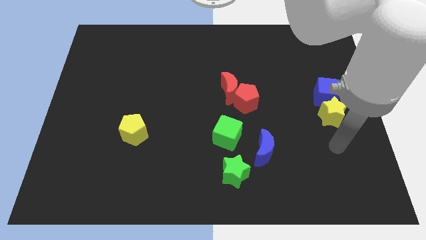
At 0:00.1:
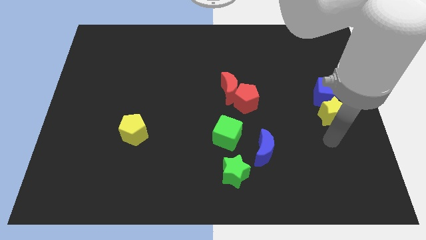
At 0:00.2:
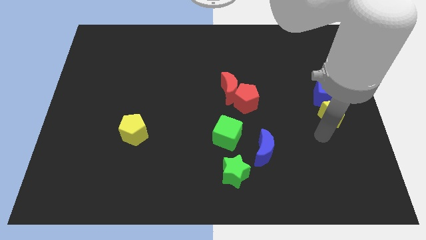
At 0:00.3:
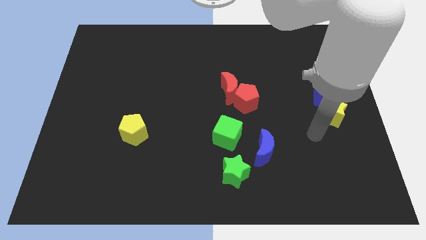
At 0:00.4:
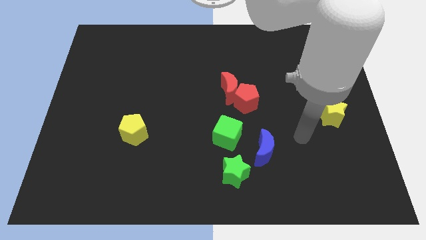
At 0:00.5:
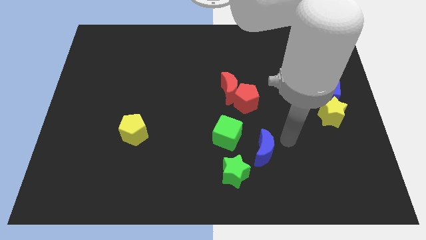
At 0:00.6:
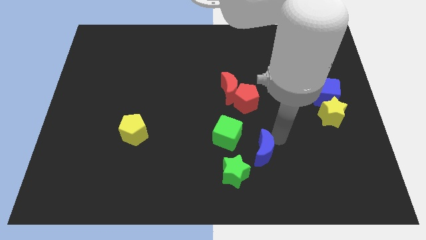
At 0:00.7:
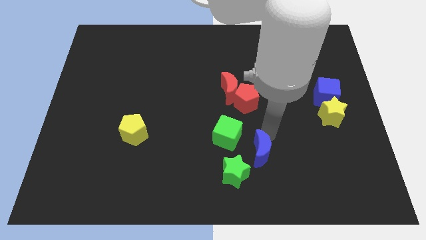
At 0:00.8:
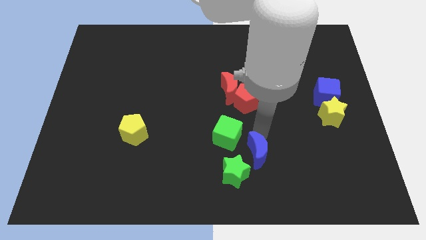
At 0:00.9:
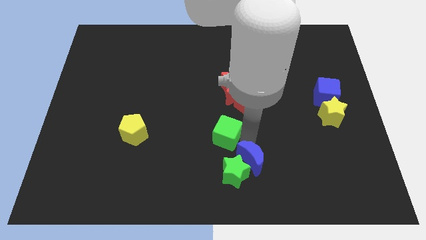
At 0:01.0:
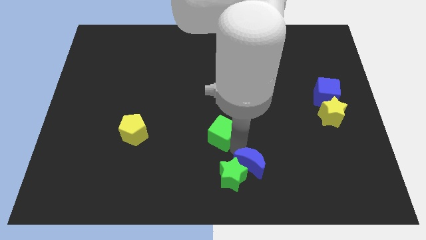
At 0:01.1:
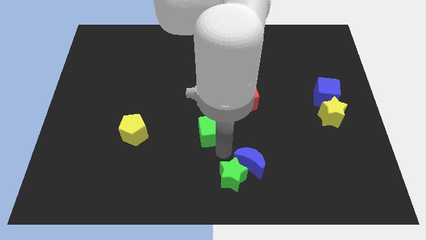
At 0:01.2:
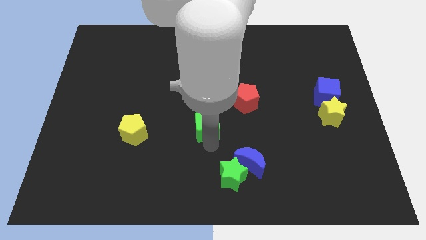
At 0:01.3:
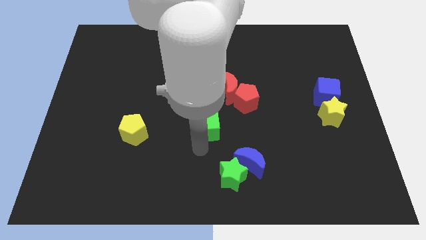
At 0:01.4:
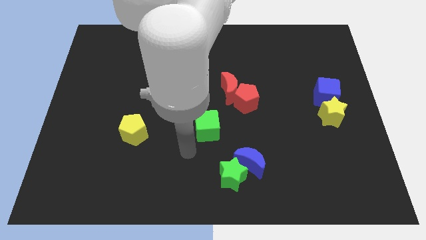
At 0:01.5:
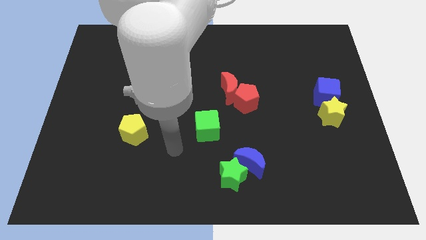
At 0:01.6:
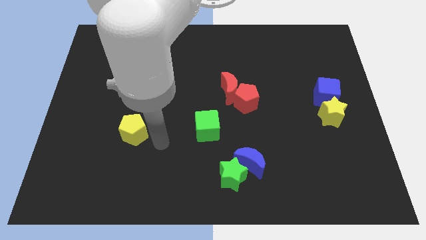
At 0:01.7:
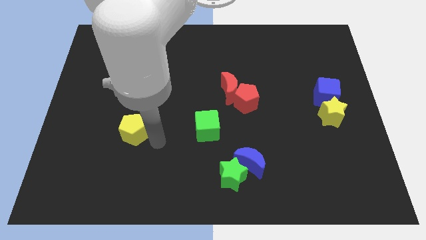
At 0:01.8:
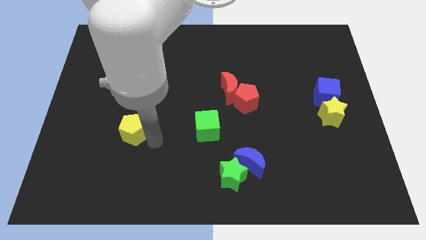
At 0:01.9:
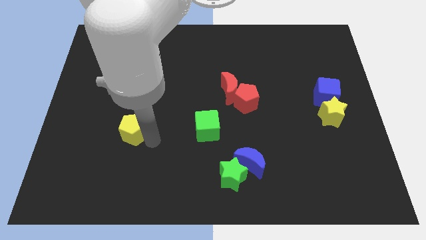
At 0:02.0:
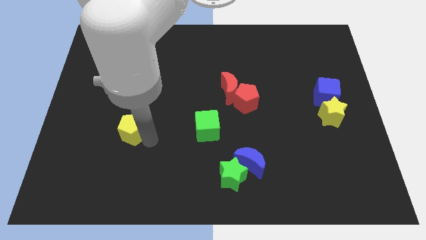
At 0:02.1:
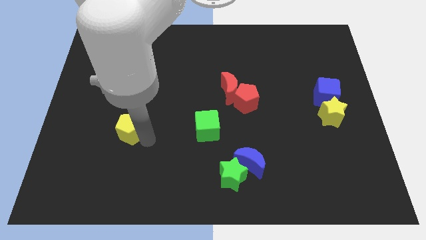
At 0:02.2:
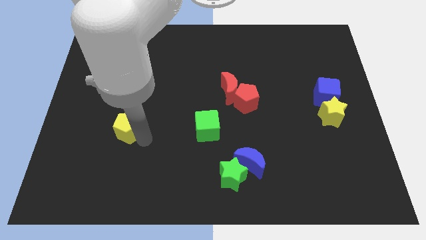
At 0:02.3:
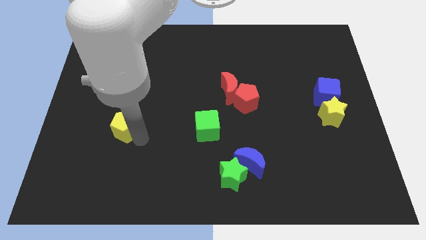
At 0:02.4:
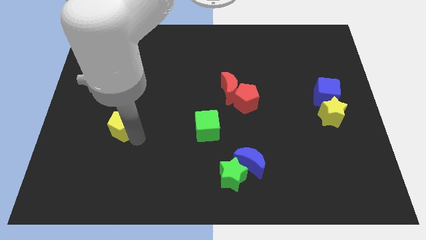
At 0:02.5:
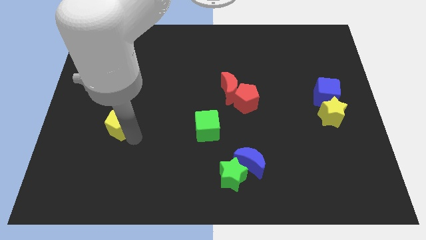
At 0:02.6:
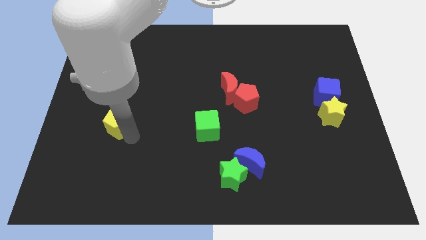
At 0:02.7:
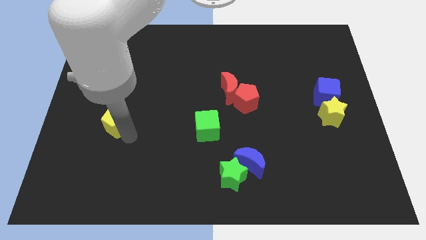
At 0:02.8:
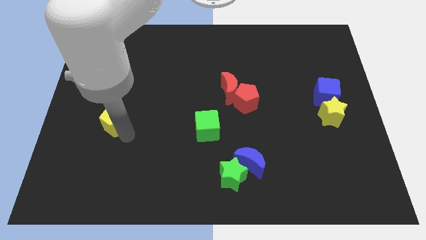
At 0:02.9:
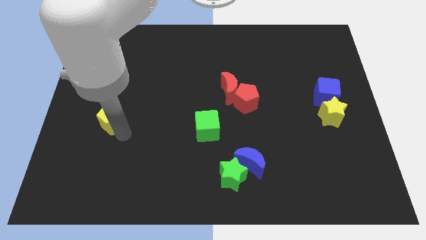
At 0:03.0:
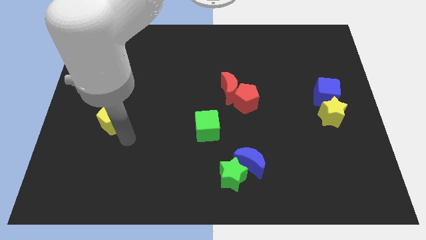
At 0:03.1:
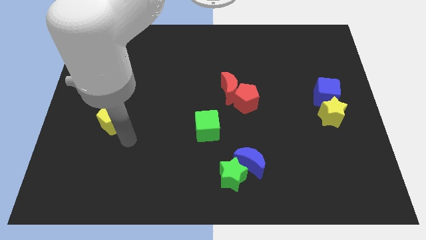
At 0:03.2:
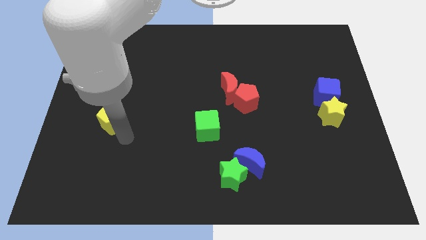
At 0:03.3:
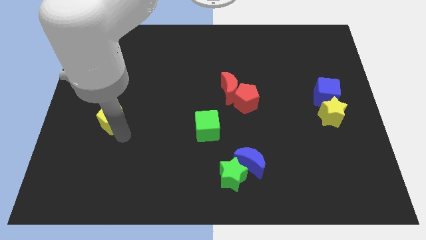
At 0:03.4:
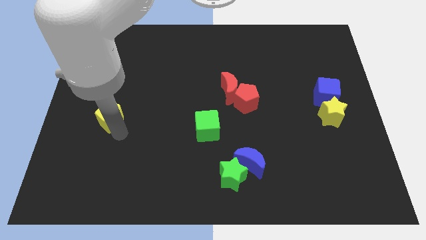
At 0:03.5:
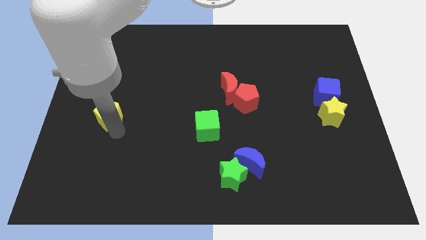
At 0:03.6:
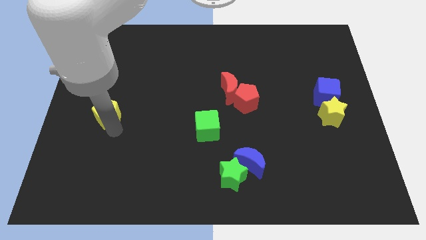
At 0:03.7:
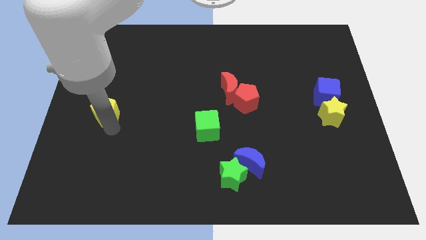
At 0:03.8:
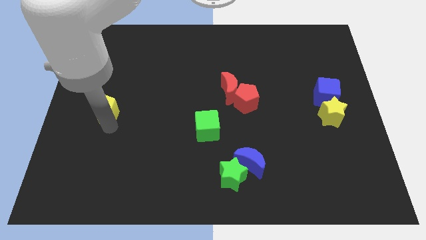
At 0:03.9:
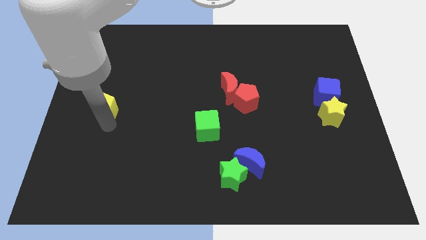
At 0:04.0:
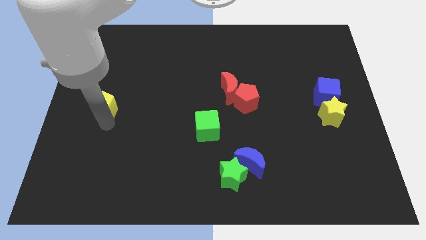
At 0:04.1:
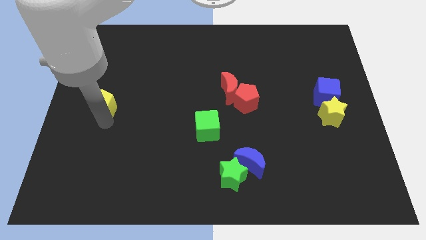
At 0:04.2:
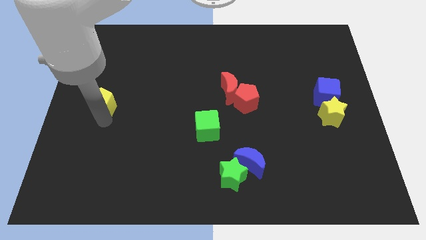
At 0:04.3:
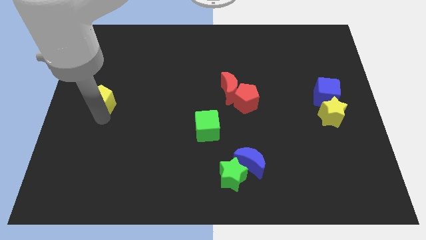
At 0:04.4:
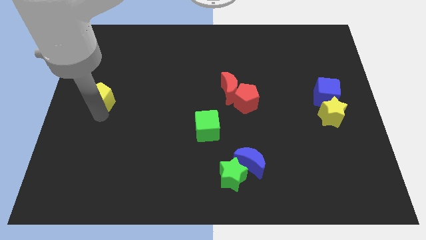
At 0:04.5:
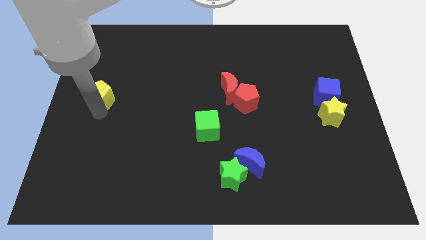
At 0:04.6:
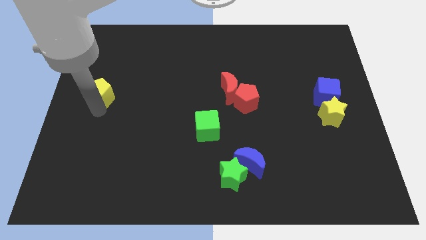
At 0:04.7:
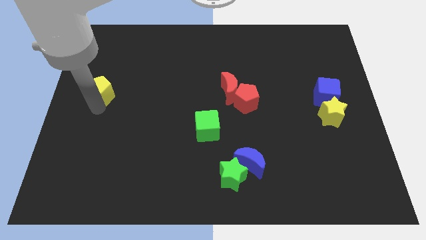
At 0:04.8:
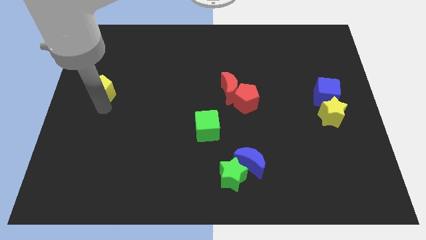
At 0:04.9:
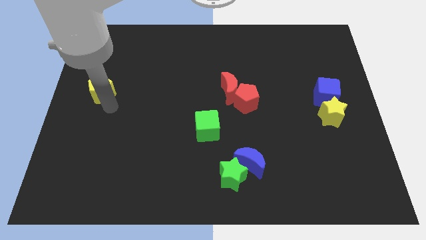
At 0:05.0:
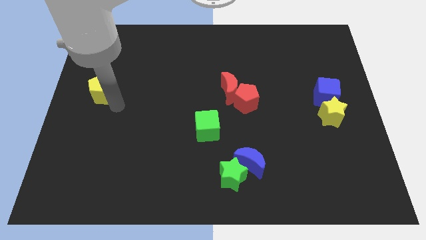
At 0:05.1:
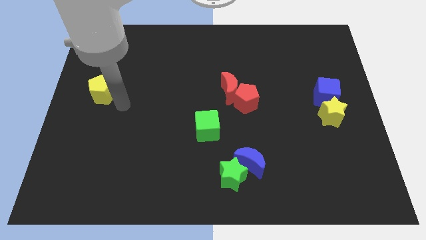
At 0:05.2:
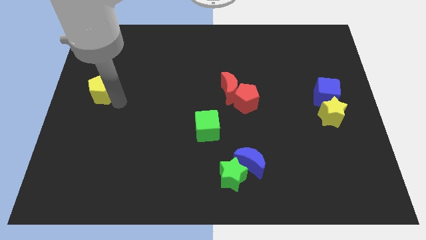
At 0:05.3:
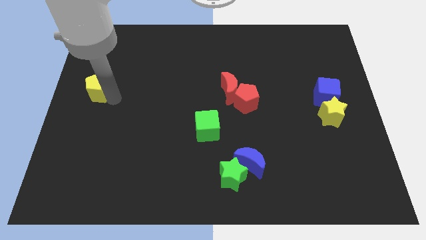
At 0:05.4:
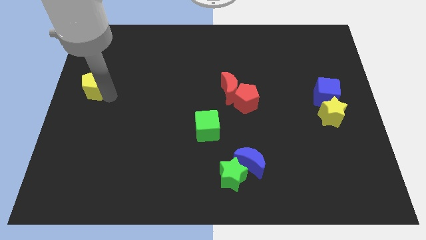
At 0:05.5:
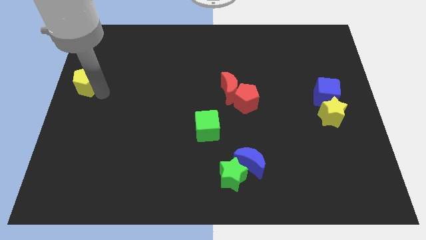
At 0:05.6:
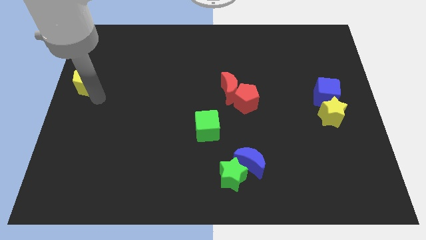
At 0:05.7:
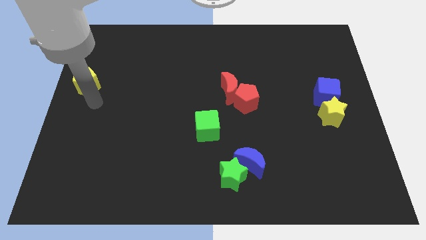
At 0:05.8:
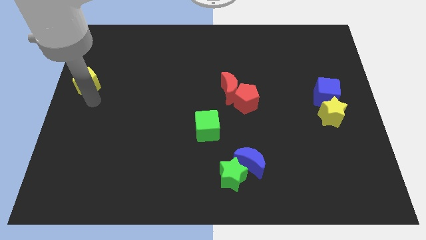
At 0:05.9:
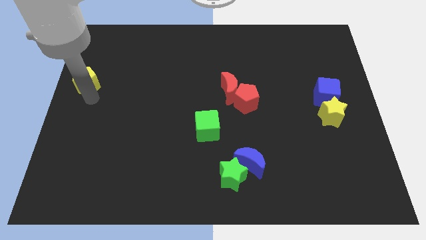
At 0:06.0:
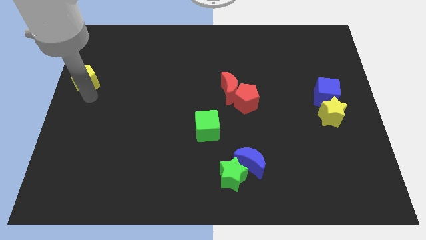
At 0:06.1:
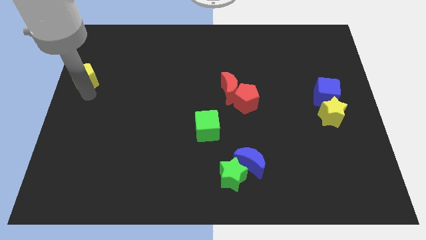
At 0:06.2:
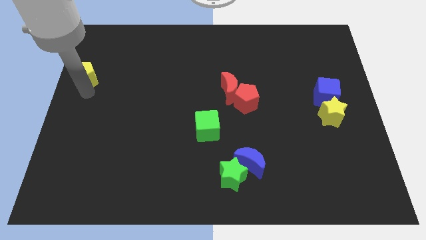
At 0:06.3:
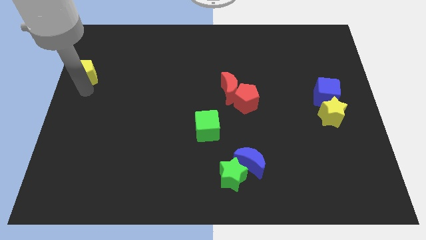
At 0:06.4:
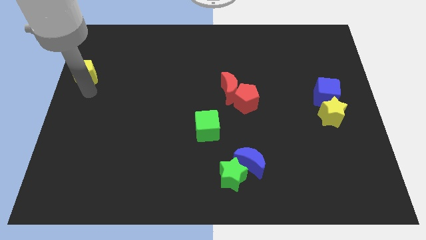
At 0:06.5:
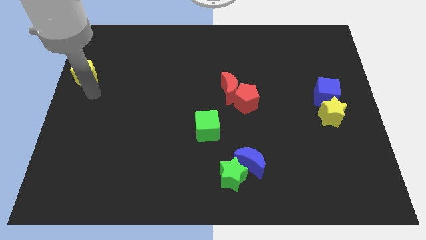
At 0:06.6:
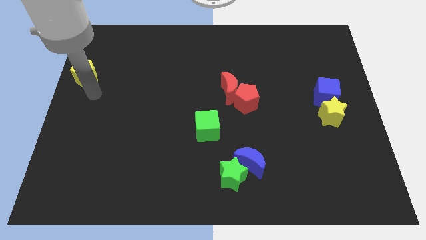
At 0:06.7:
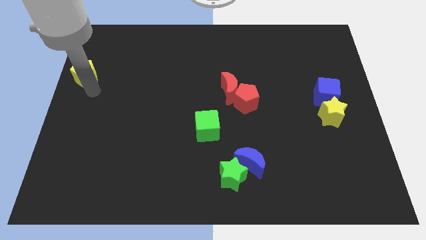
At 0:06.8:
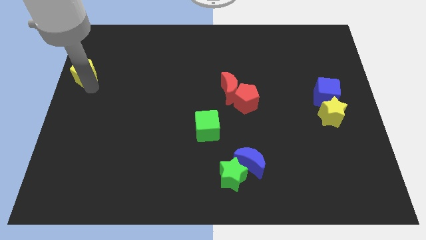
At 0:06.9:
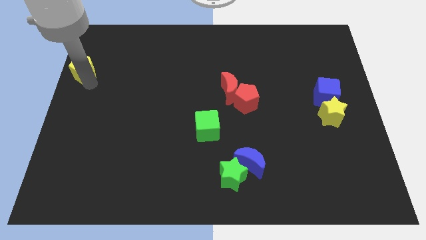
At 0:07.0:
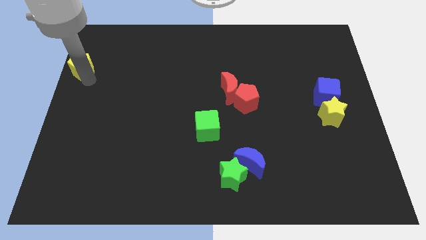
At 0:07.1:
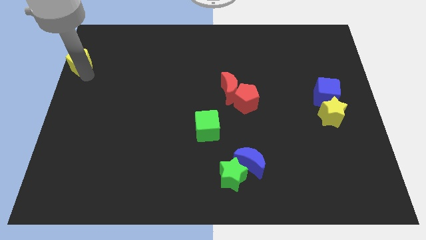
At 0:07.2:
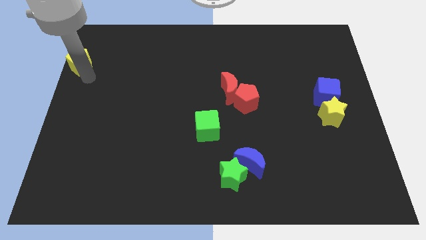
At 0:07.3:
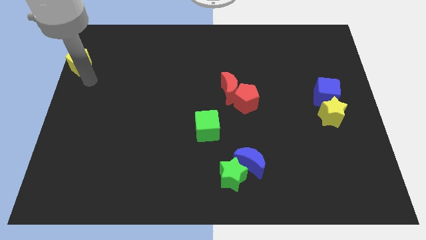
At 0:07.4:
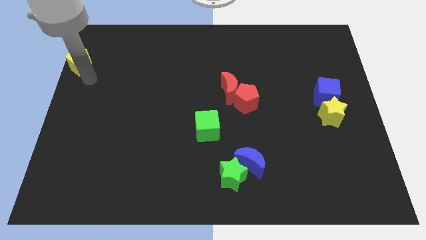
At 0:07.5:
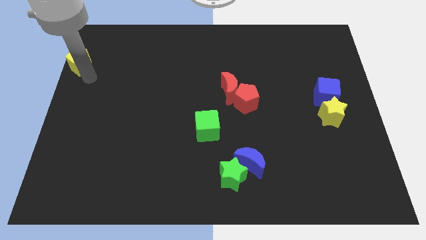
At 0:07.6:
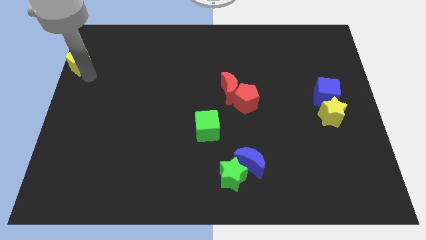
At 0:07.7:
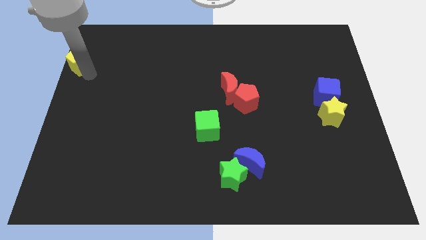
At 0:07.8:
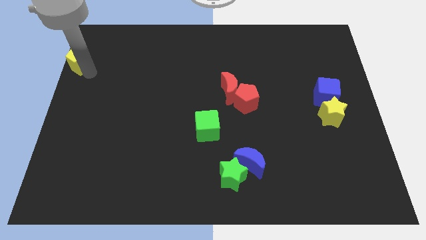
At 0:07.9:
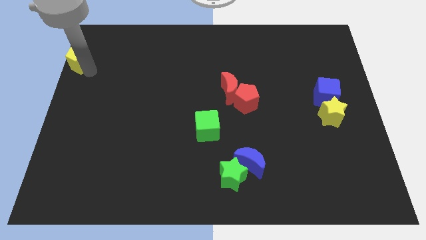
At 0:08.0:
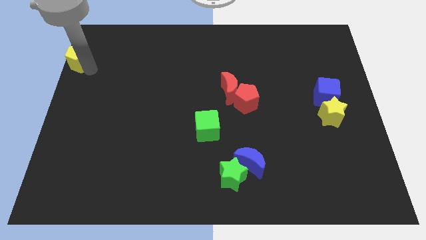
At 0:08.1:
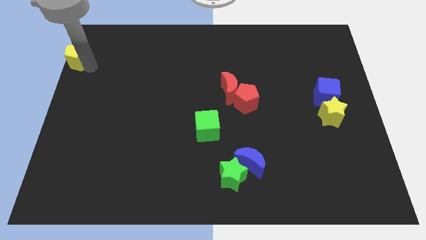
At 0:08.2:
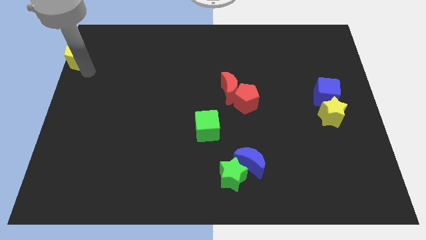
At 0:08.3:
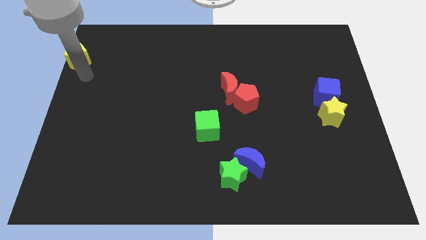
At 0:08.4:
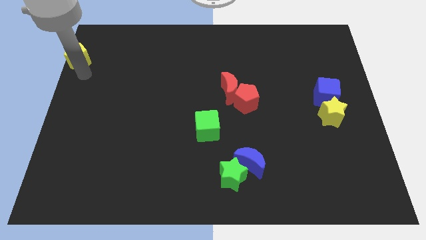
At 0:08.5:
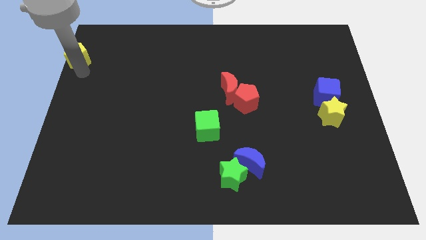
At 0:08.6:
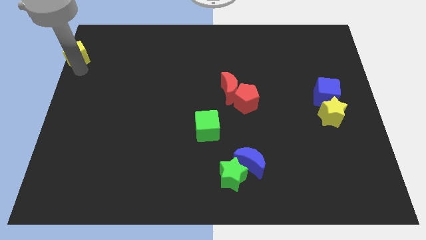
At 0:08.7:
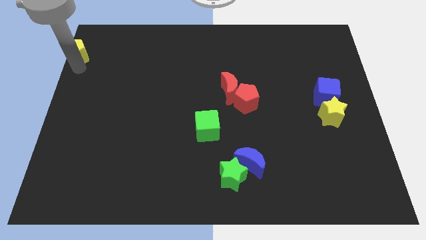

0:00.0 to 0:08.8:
slide the yellow pentagon to the top left corner
